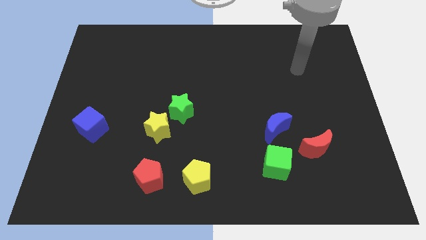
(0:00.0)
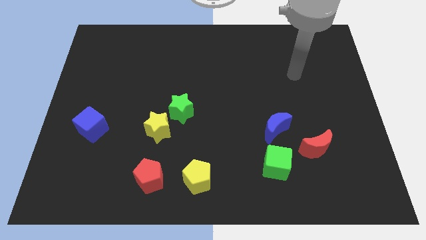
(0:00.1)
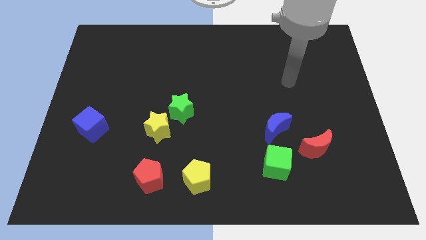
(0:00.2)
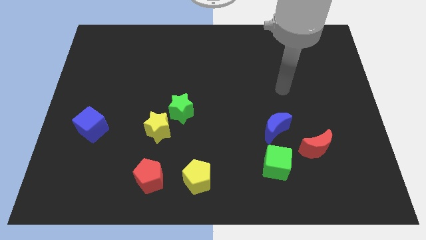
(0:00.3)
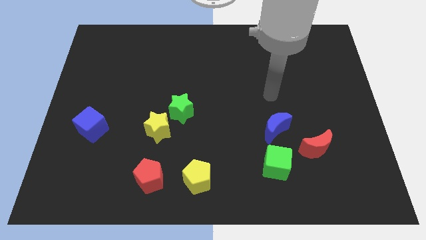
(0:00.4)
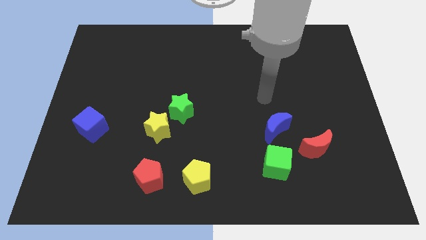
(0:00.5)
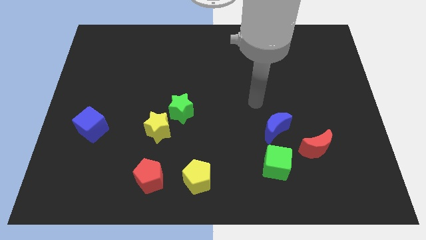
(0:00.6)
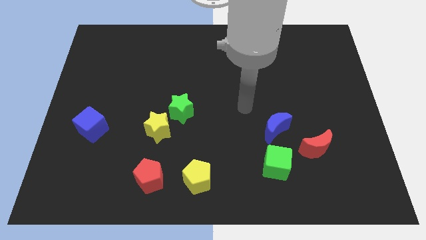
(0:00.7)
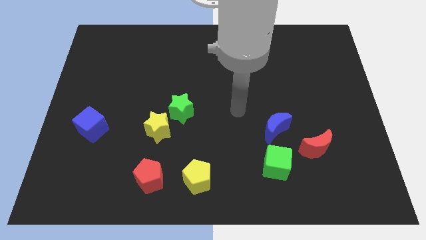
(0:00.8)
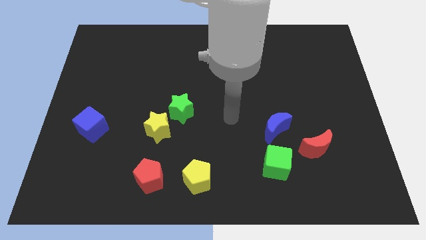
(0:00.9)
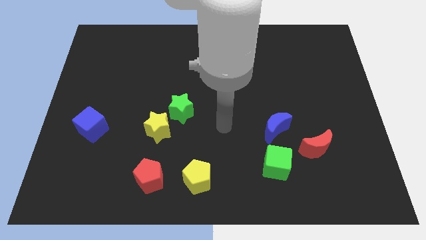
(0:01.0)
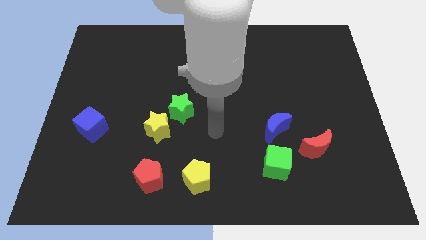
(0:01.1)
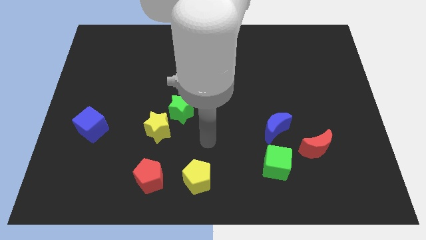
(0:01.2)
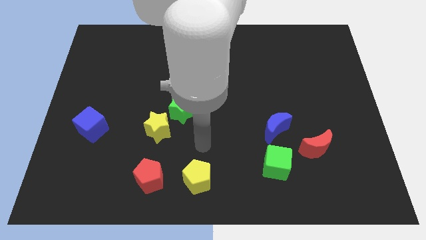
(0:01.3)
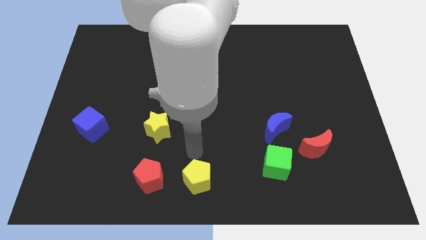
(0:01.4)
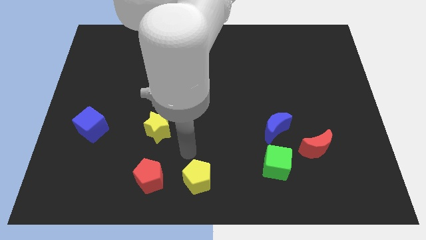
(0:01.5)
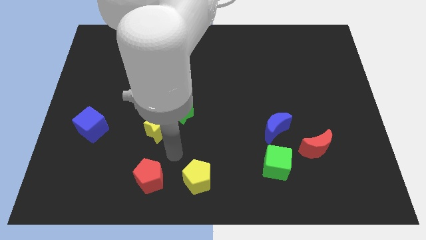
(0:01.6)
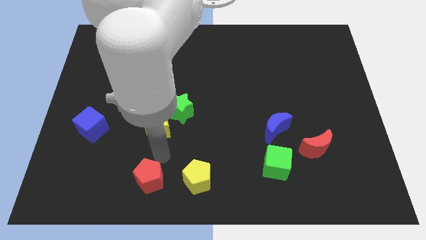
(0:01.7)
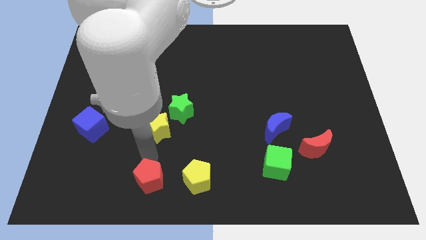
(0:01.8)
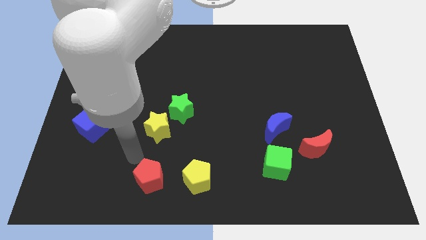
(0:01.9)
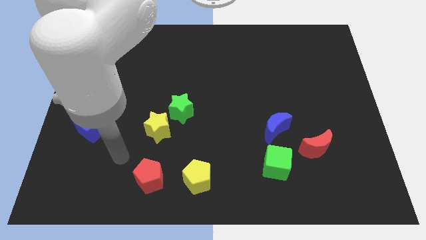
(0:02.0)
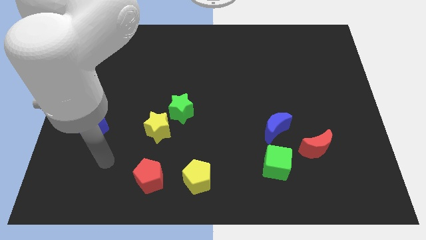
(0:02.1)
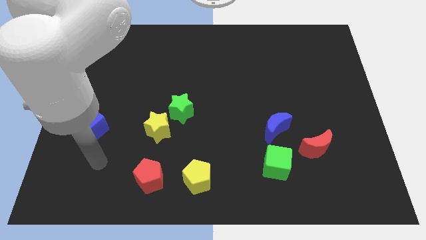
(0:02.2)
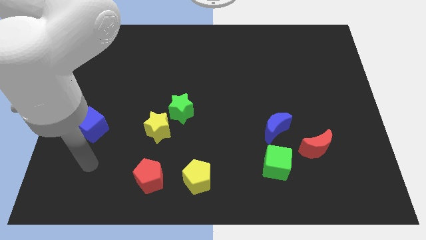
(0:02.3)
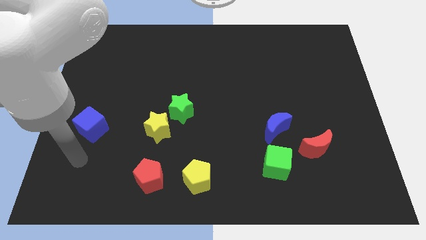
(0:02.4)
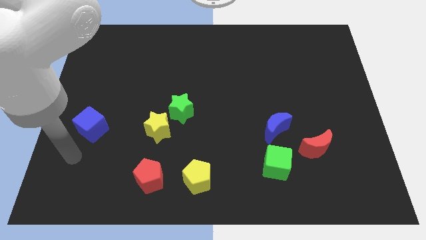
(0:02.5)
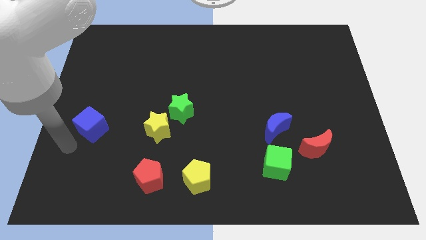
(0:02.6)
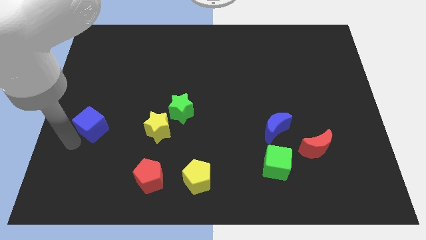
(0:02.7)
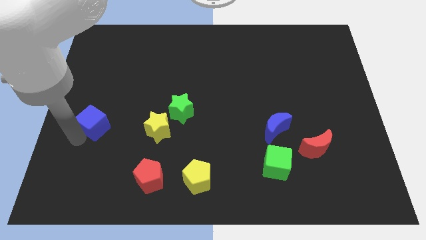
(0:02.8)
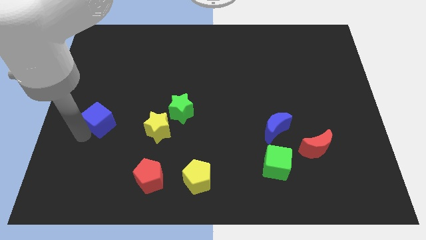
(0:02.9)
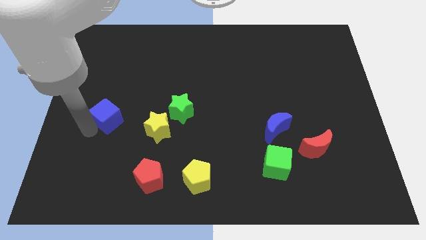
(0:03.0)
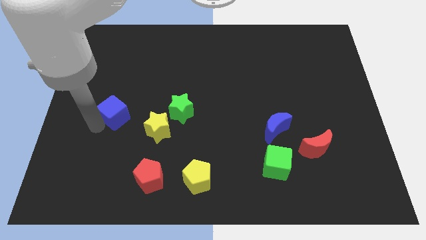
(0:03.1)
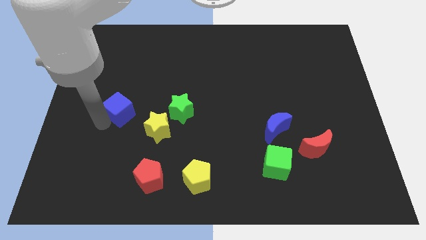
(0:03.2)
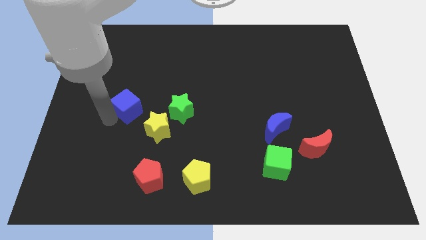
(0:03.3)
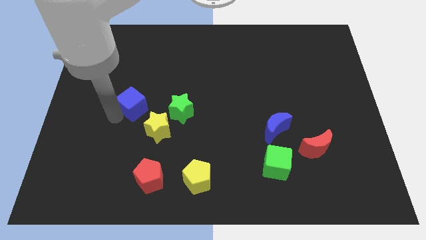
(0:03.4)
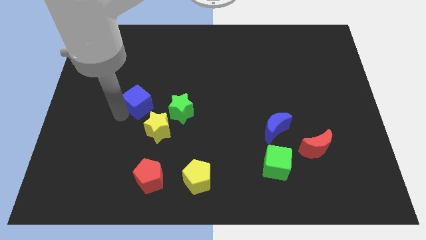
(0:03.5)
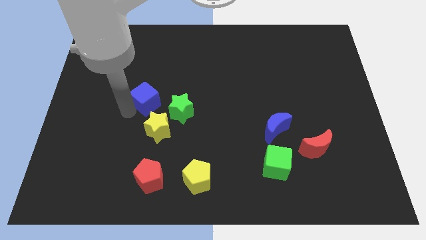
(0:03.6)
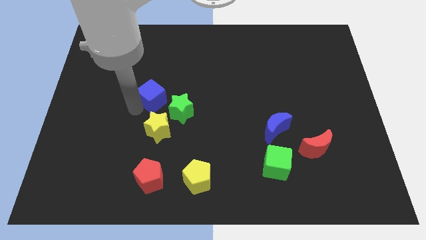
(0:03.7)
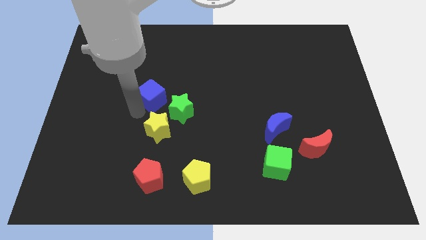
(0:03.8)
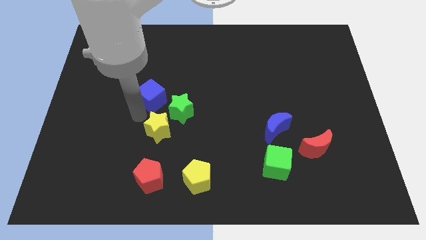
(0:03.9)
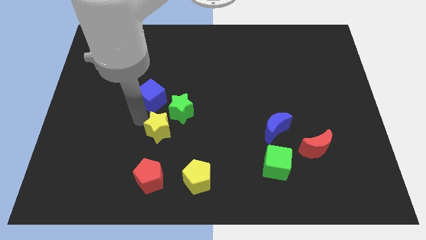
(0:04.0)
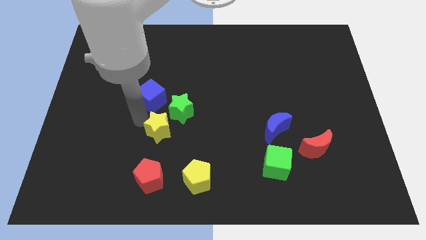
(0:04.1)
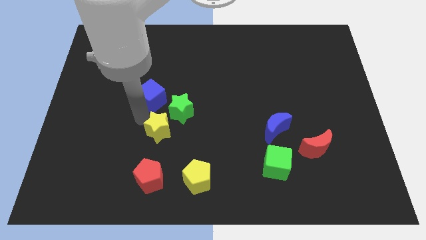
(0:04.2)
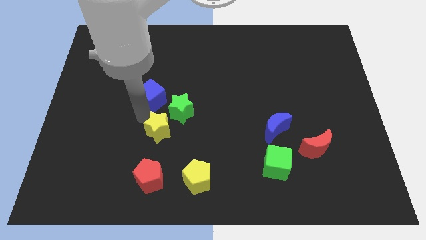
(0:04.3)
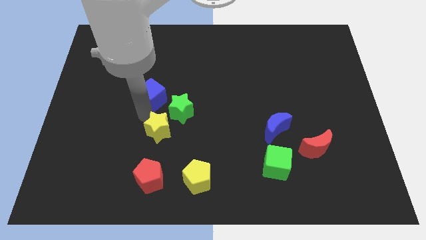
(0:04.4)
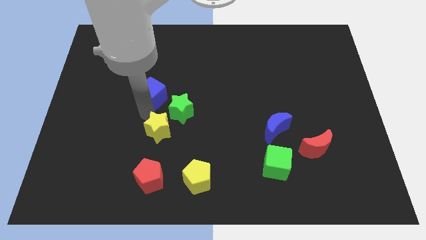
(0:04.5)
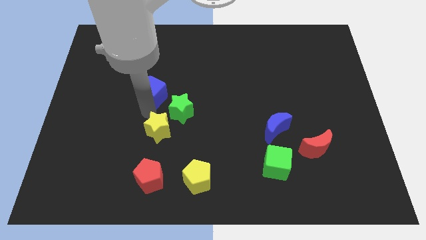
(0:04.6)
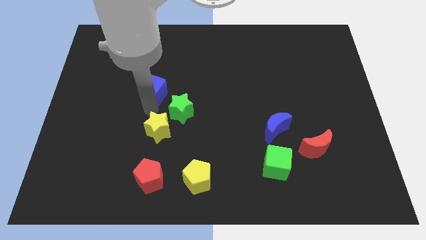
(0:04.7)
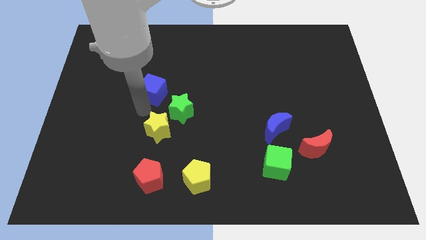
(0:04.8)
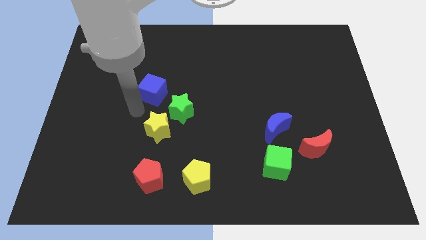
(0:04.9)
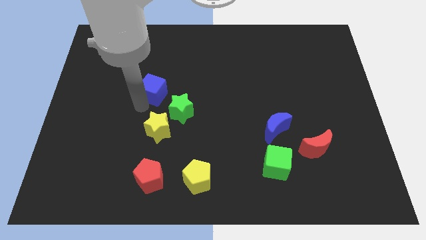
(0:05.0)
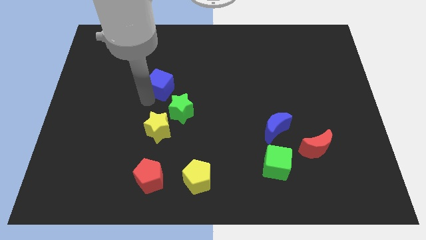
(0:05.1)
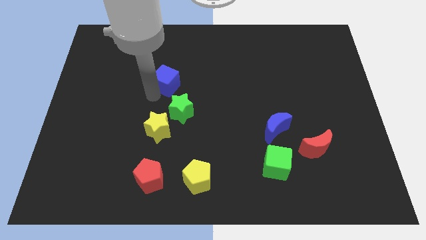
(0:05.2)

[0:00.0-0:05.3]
push the blue cube up and then right

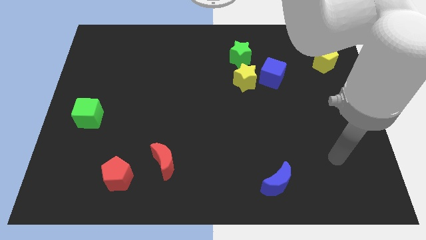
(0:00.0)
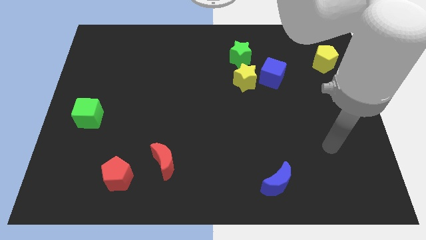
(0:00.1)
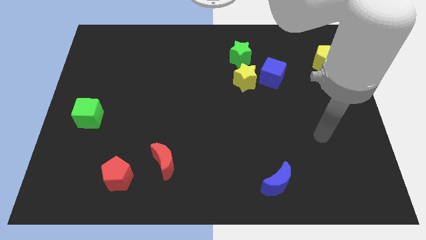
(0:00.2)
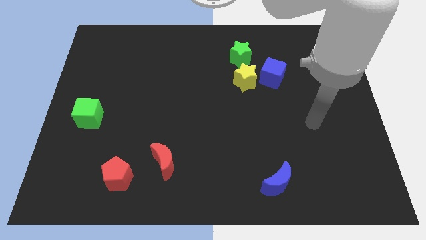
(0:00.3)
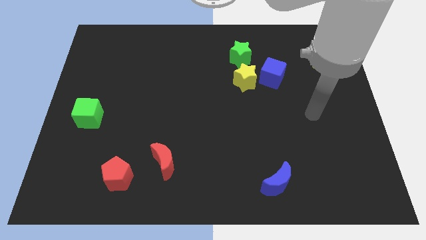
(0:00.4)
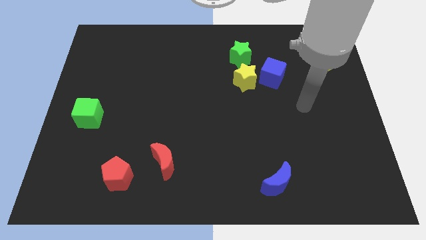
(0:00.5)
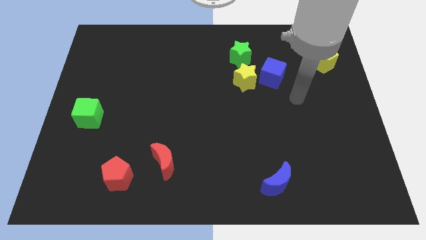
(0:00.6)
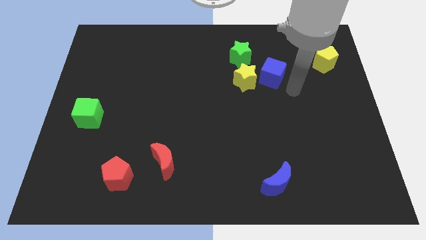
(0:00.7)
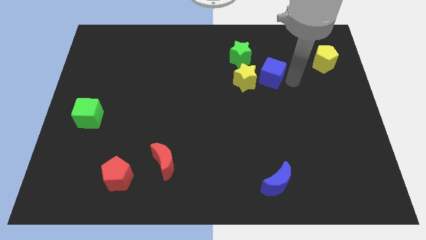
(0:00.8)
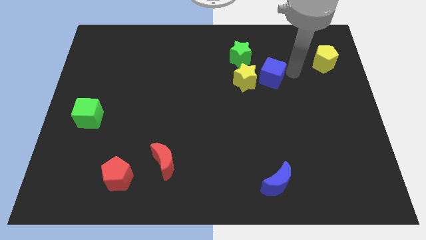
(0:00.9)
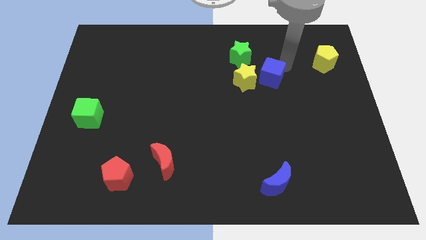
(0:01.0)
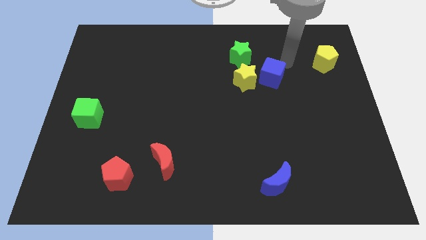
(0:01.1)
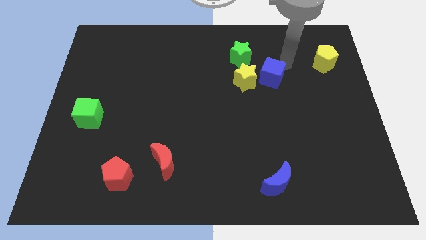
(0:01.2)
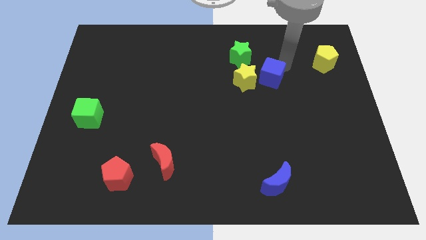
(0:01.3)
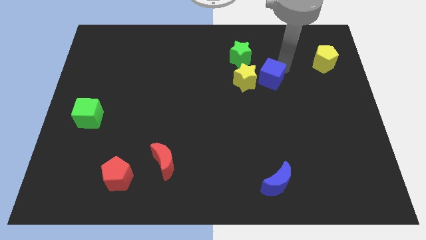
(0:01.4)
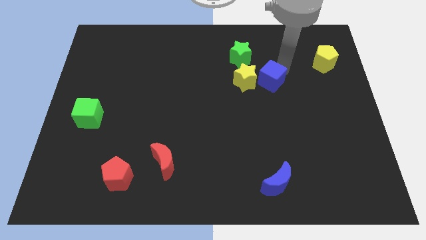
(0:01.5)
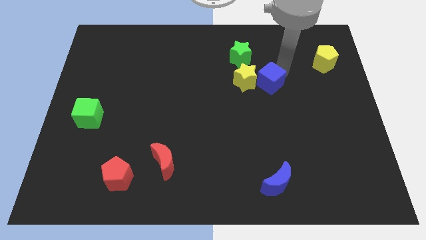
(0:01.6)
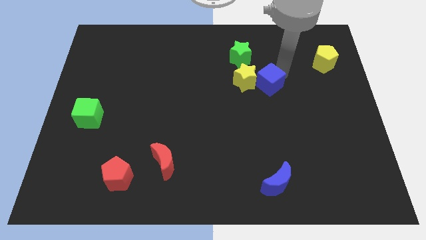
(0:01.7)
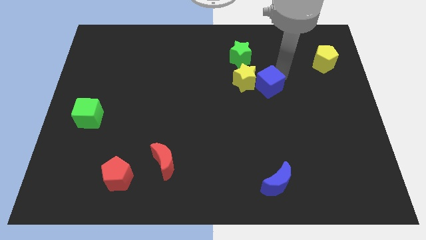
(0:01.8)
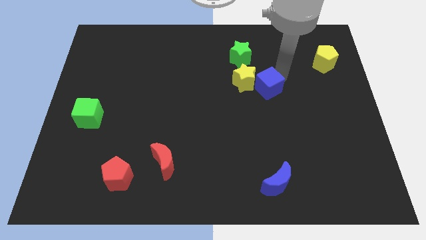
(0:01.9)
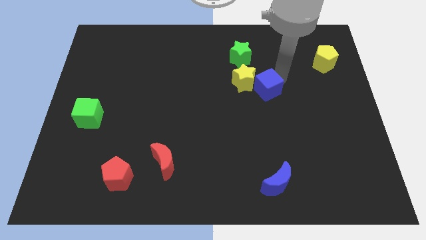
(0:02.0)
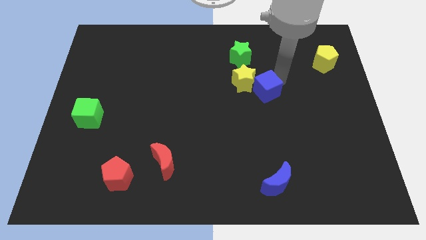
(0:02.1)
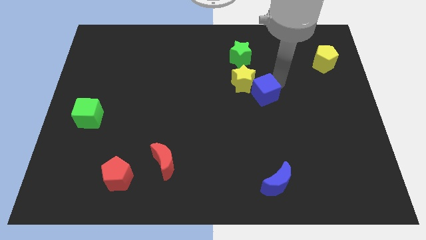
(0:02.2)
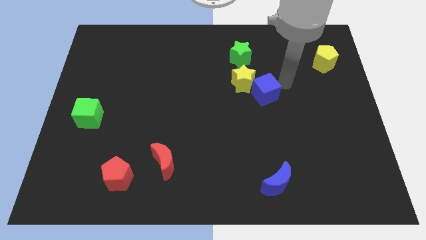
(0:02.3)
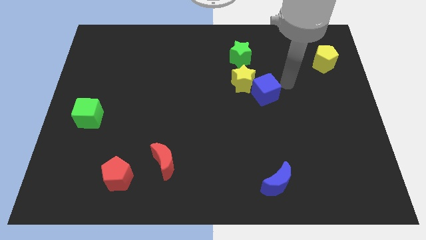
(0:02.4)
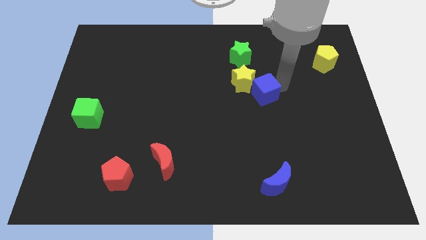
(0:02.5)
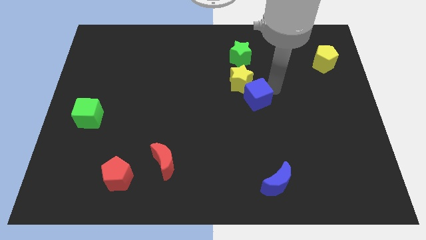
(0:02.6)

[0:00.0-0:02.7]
move the blue cube diagonally down and left a little bit
